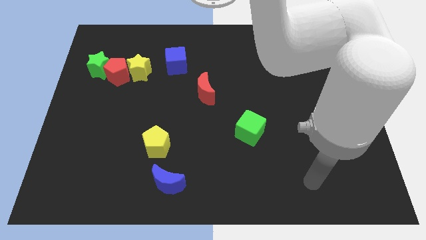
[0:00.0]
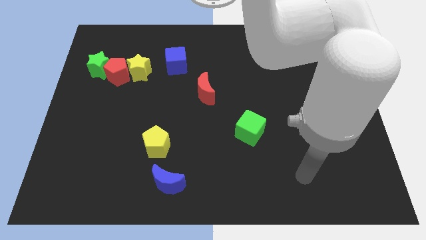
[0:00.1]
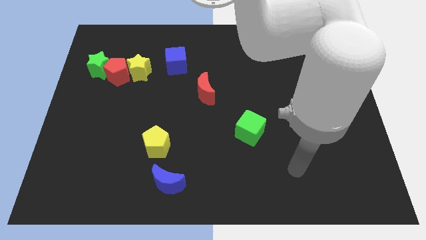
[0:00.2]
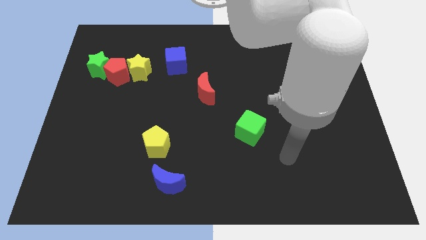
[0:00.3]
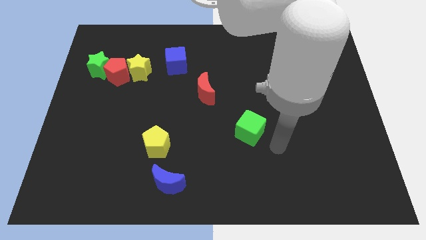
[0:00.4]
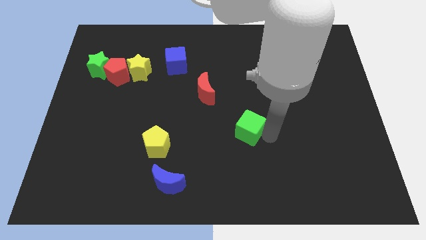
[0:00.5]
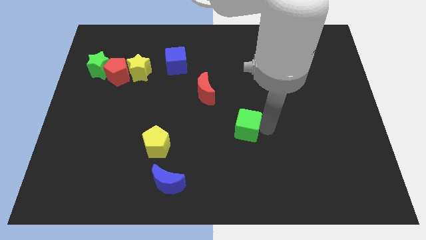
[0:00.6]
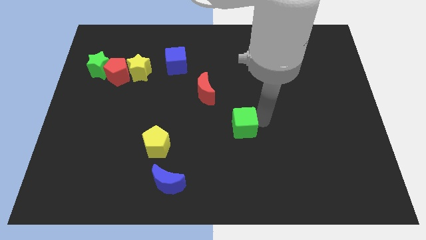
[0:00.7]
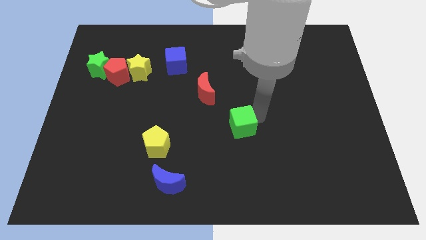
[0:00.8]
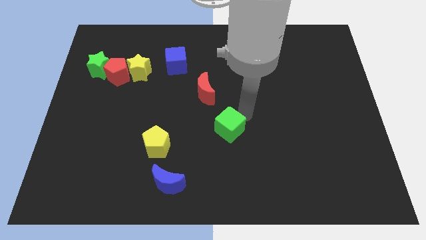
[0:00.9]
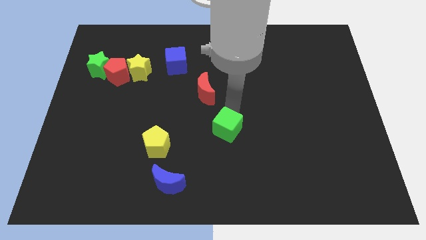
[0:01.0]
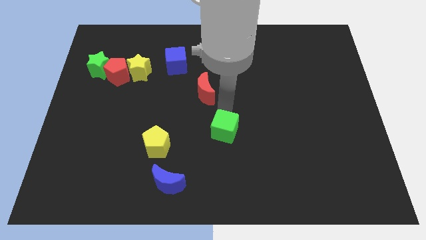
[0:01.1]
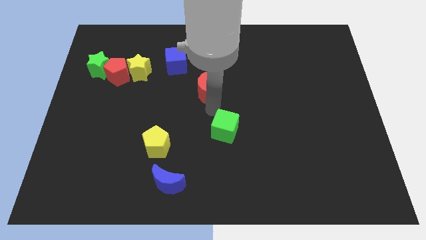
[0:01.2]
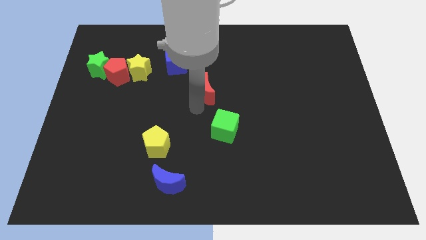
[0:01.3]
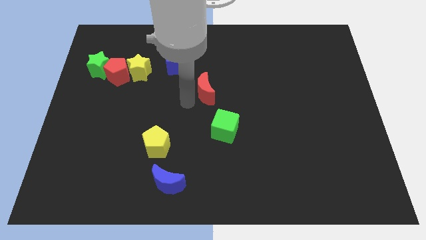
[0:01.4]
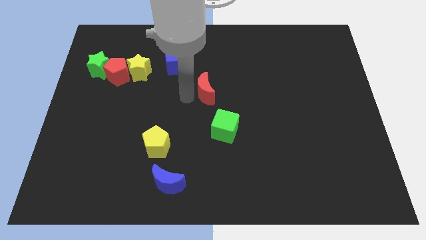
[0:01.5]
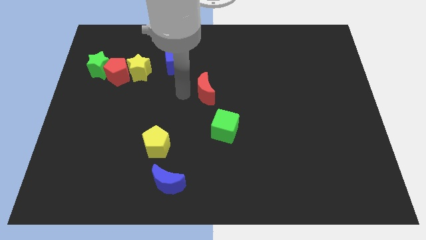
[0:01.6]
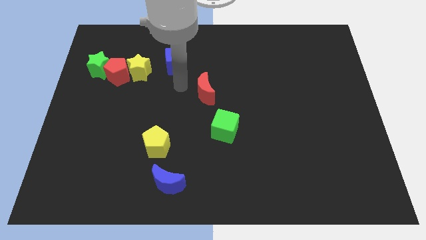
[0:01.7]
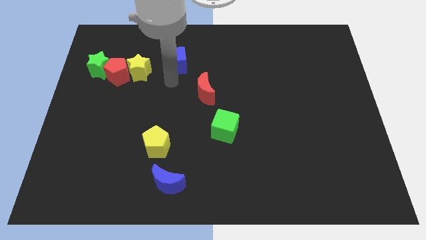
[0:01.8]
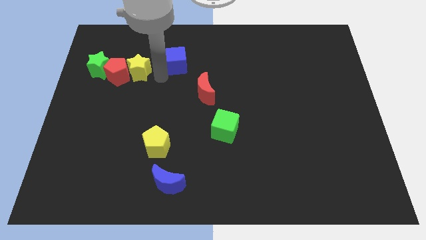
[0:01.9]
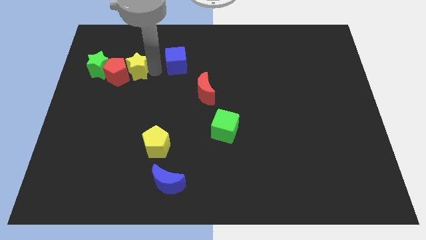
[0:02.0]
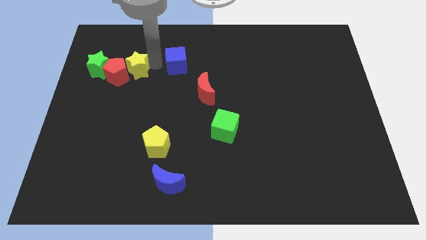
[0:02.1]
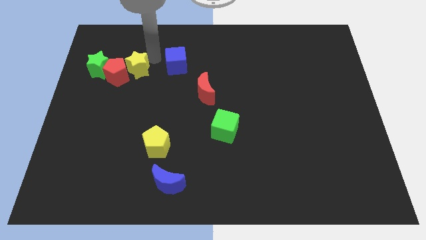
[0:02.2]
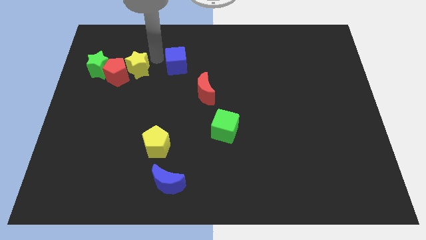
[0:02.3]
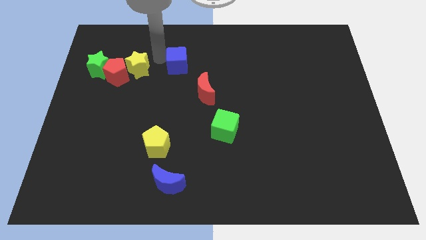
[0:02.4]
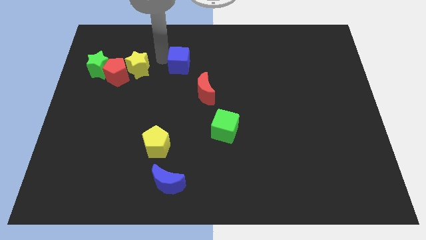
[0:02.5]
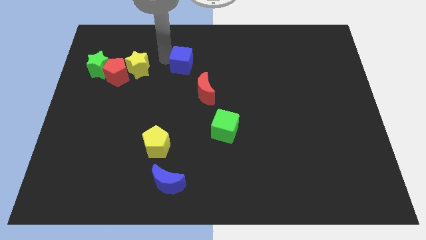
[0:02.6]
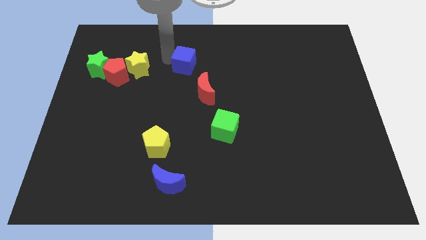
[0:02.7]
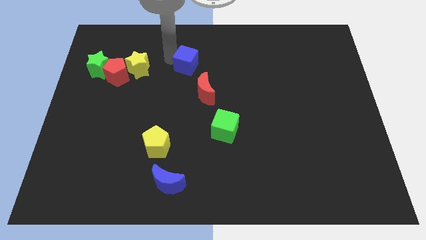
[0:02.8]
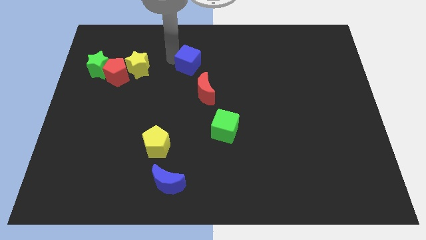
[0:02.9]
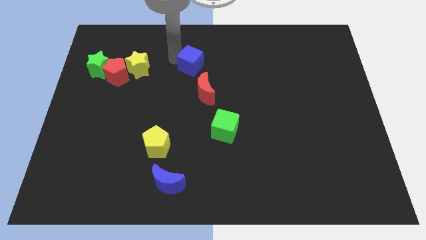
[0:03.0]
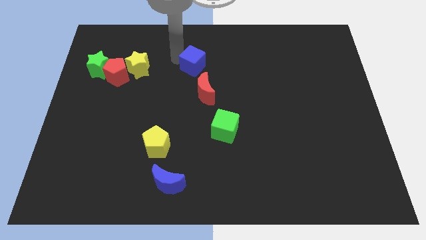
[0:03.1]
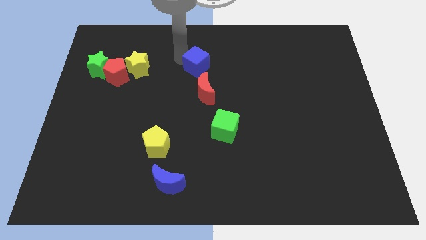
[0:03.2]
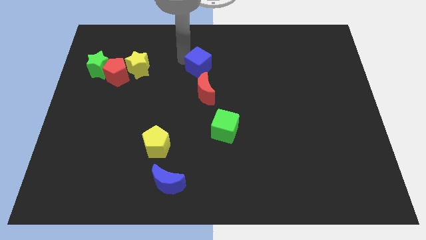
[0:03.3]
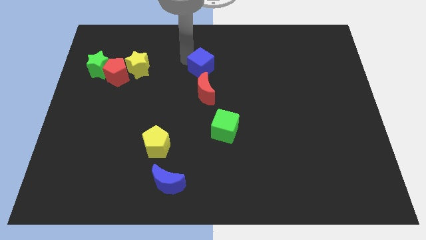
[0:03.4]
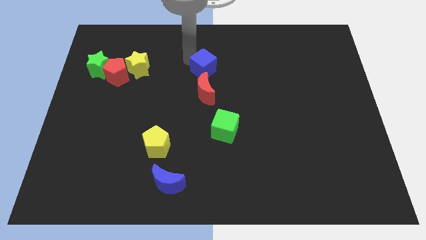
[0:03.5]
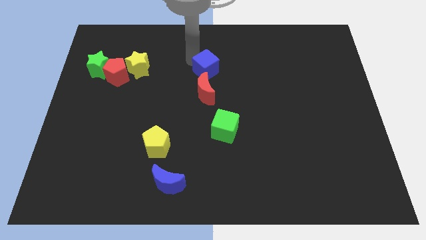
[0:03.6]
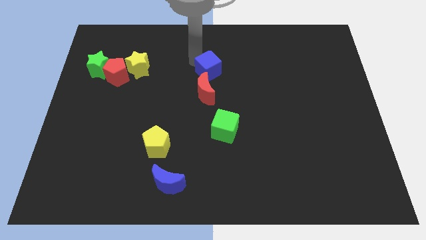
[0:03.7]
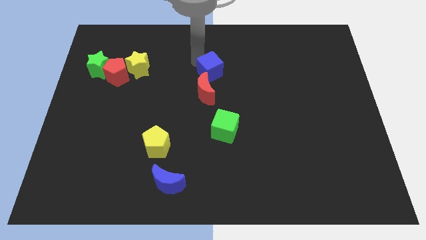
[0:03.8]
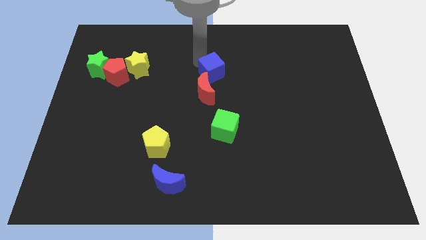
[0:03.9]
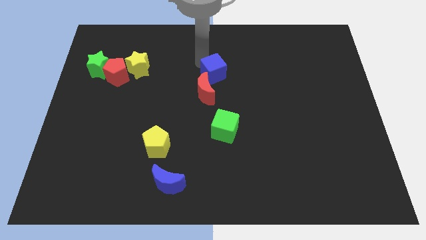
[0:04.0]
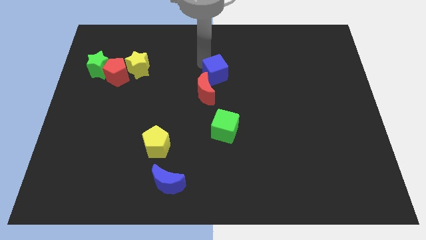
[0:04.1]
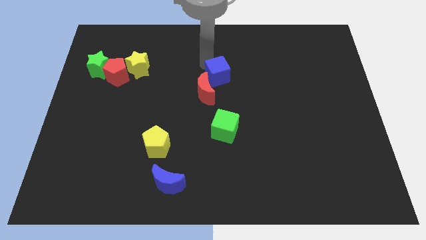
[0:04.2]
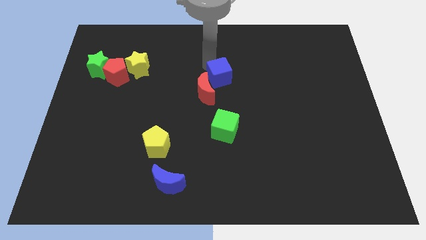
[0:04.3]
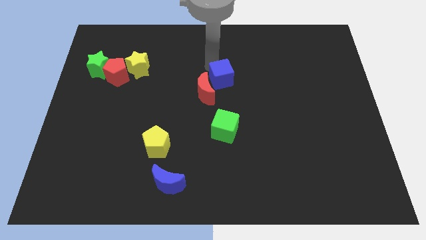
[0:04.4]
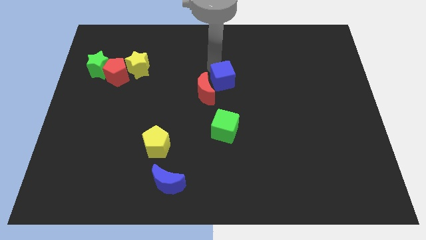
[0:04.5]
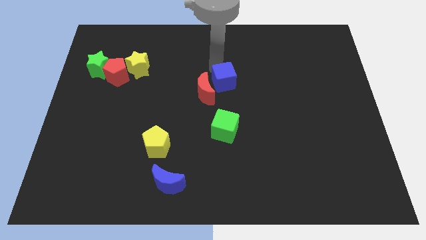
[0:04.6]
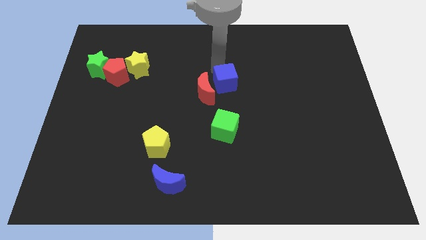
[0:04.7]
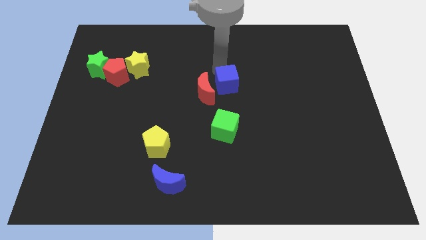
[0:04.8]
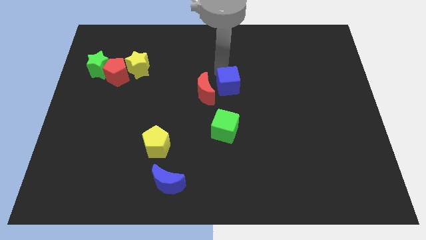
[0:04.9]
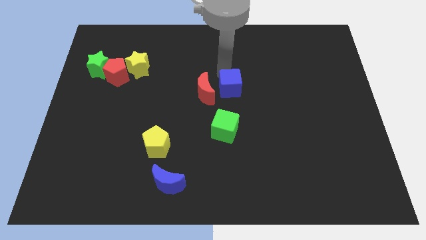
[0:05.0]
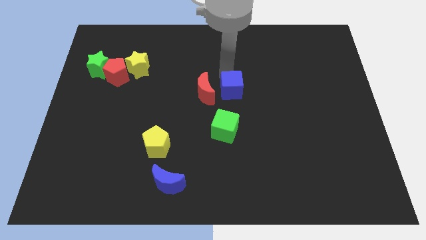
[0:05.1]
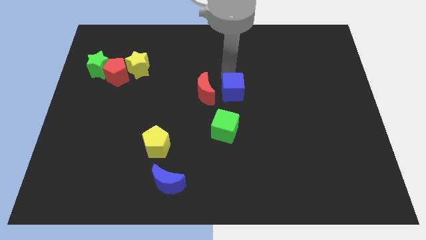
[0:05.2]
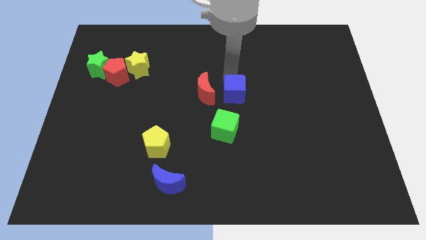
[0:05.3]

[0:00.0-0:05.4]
push the blue cube to the bottom right of the red moon
